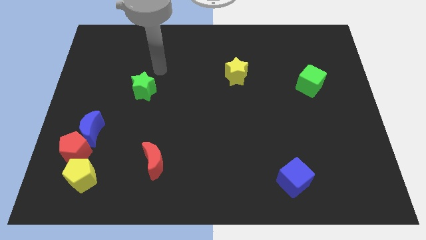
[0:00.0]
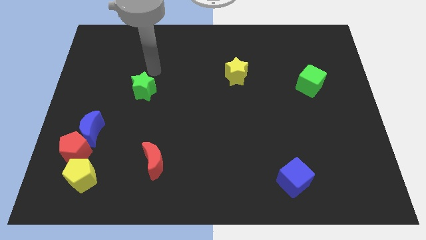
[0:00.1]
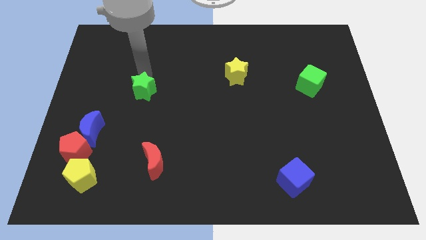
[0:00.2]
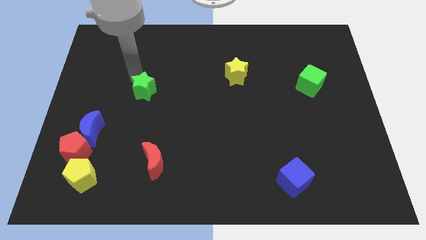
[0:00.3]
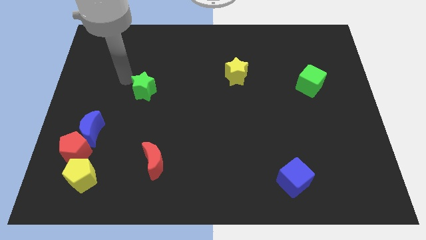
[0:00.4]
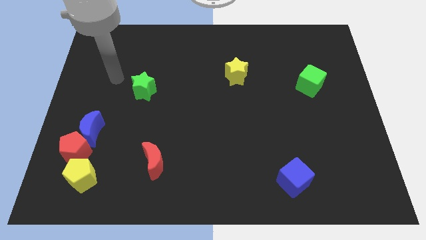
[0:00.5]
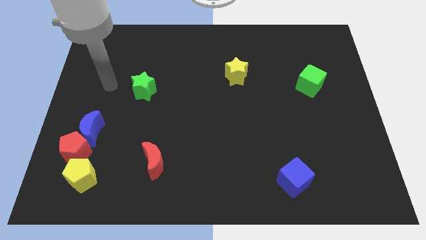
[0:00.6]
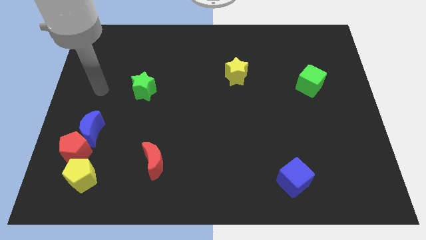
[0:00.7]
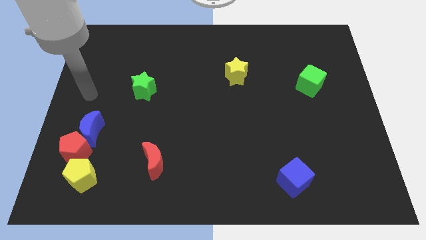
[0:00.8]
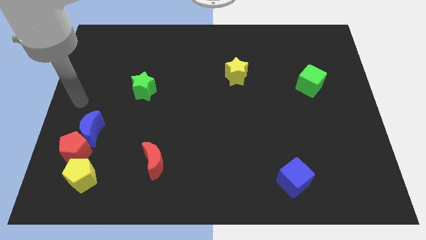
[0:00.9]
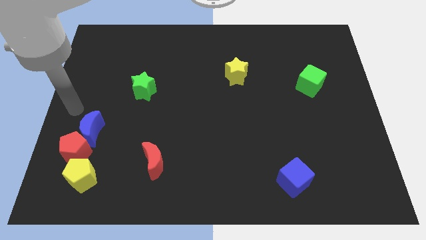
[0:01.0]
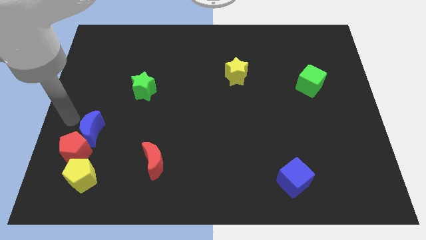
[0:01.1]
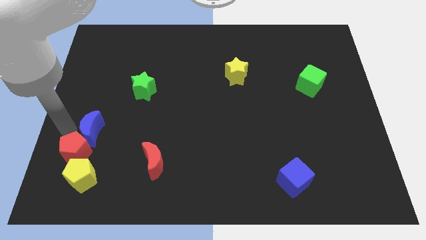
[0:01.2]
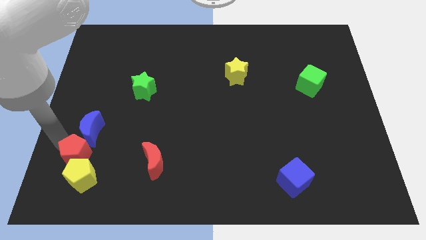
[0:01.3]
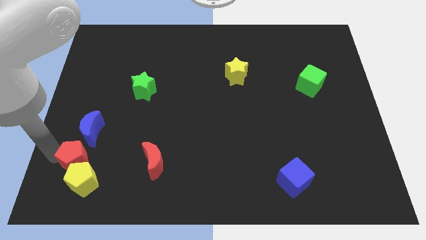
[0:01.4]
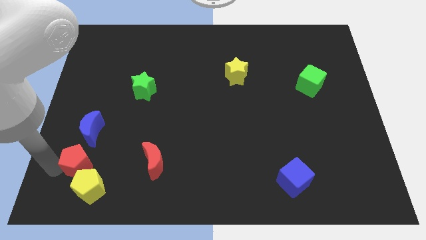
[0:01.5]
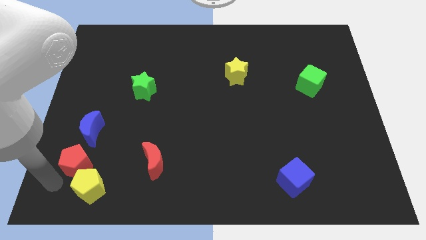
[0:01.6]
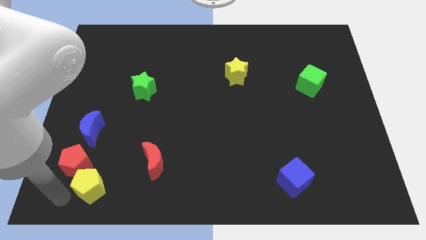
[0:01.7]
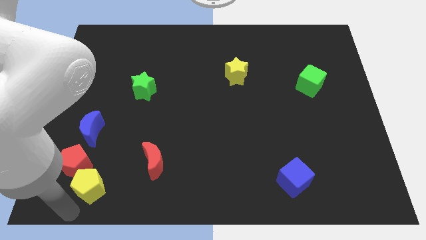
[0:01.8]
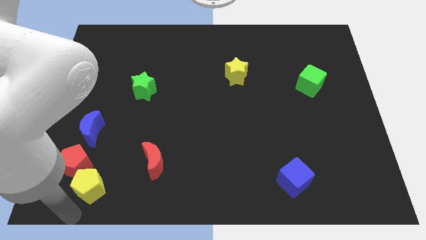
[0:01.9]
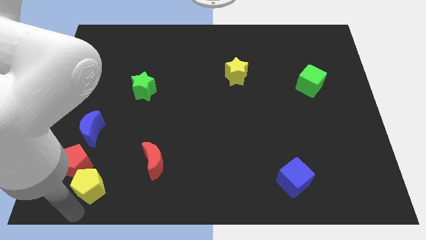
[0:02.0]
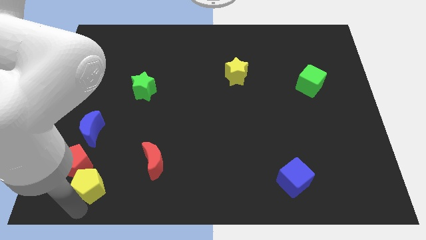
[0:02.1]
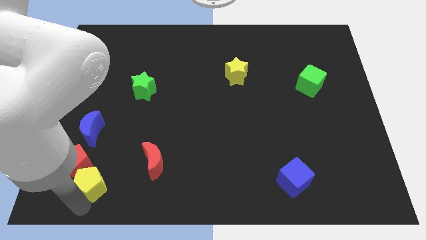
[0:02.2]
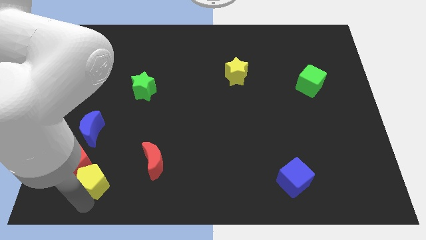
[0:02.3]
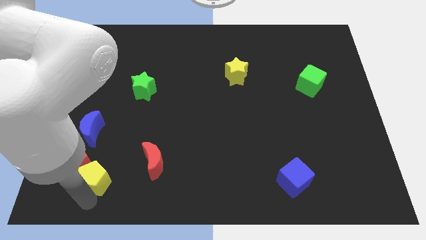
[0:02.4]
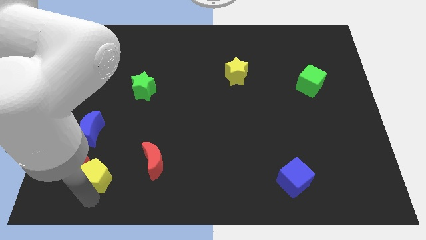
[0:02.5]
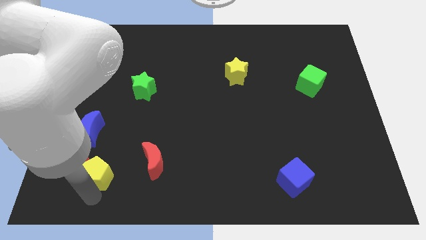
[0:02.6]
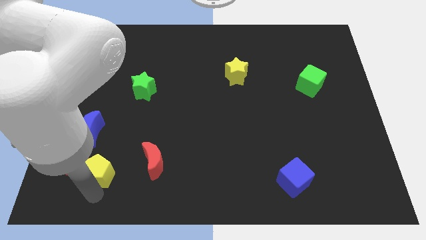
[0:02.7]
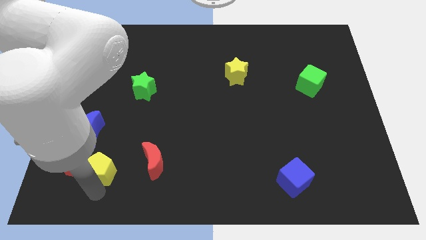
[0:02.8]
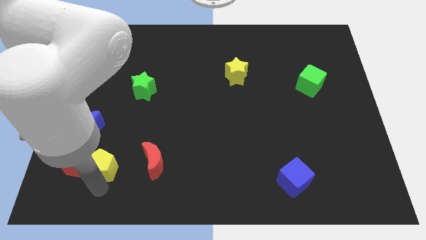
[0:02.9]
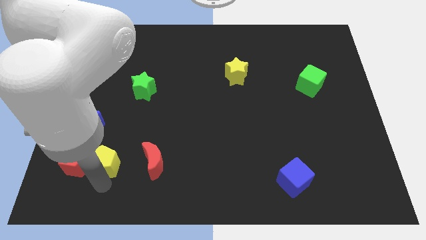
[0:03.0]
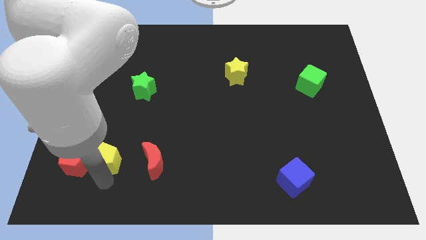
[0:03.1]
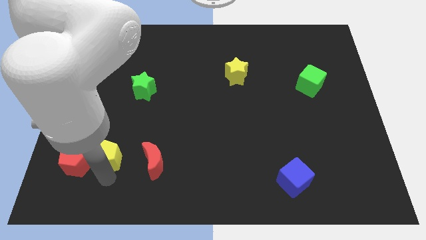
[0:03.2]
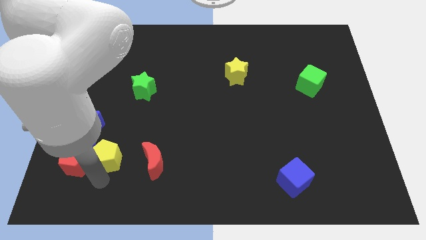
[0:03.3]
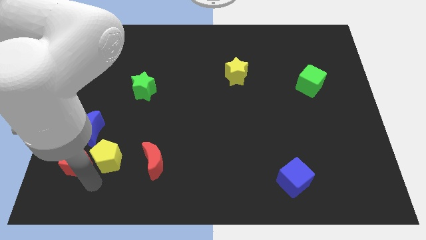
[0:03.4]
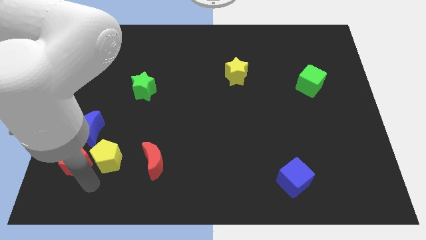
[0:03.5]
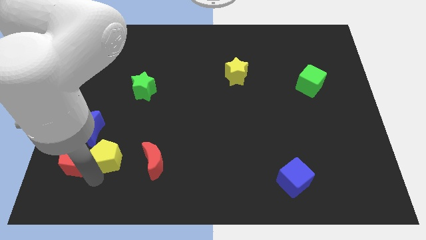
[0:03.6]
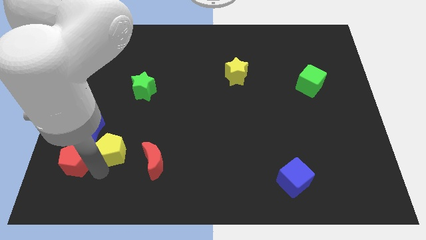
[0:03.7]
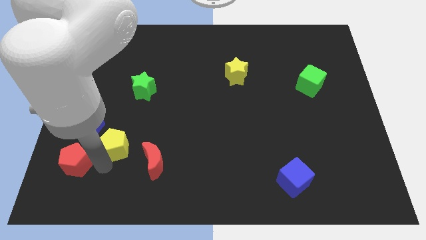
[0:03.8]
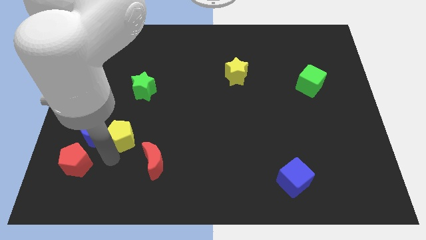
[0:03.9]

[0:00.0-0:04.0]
move the yellow pentagon slightly upwards

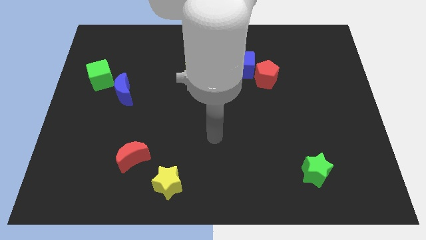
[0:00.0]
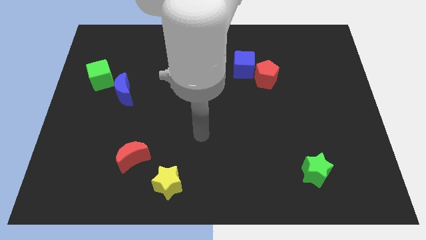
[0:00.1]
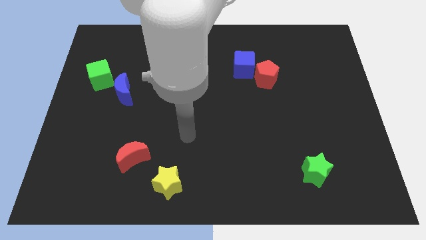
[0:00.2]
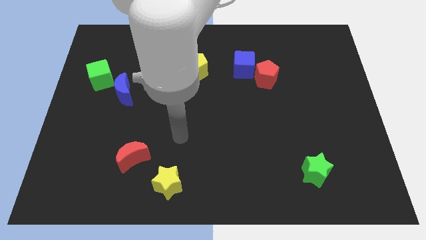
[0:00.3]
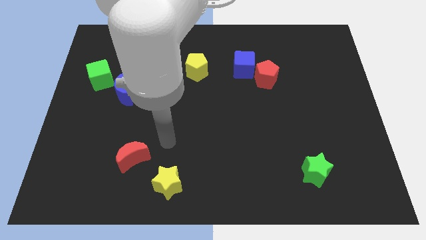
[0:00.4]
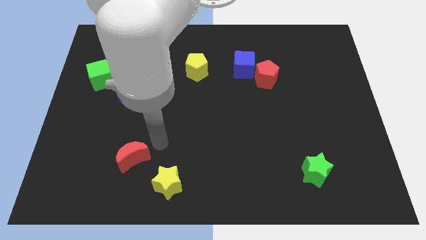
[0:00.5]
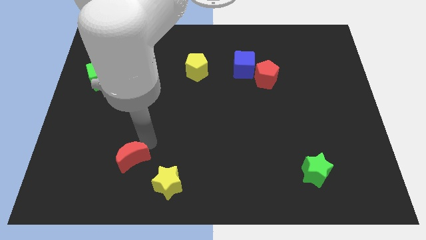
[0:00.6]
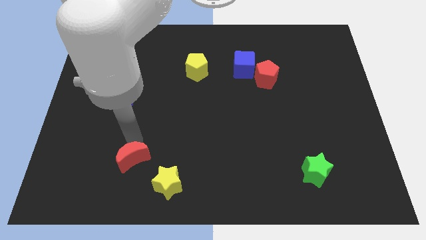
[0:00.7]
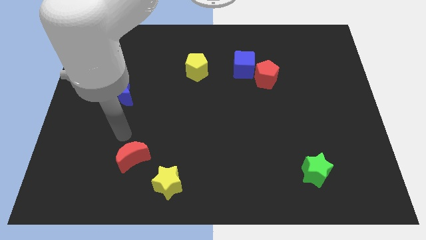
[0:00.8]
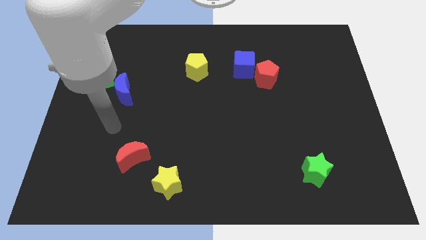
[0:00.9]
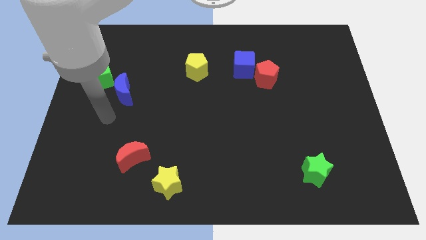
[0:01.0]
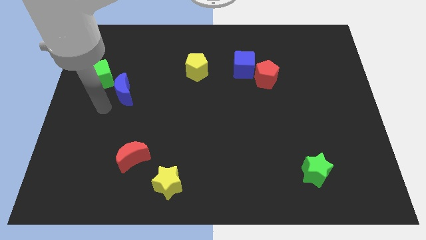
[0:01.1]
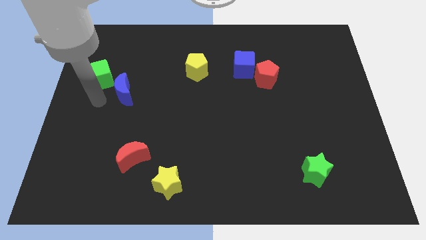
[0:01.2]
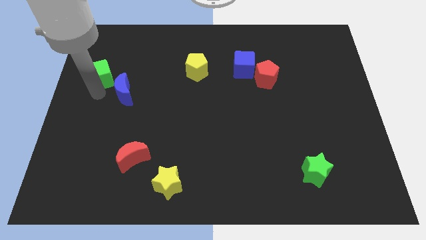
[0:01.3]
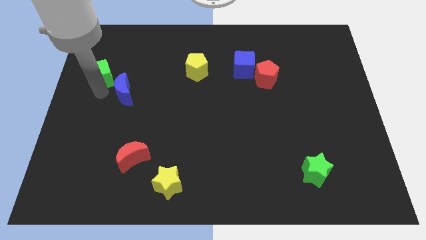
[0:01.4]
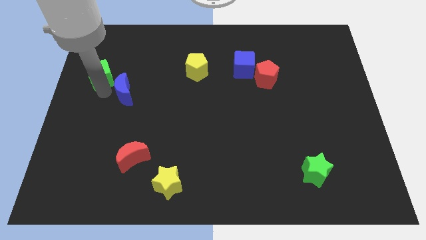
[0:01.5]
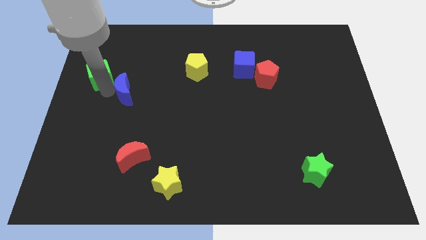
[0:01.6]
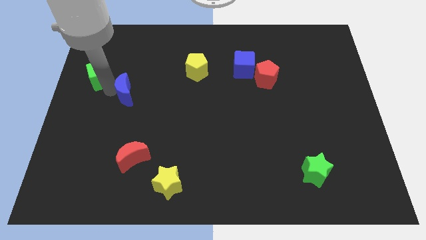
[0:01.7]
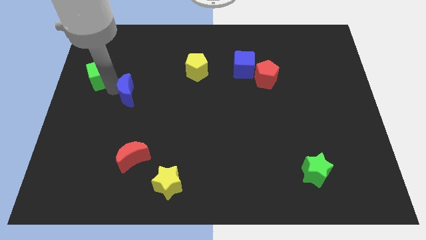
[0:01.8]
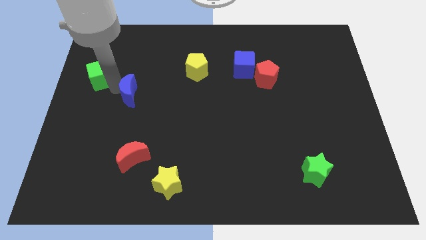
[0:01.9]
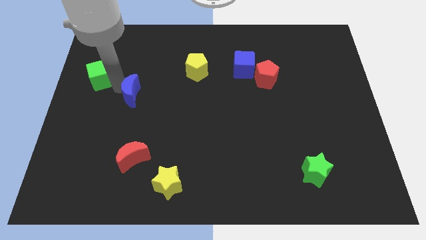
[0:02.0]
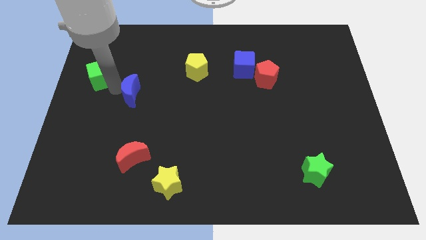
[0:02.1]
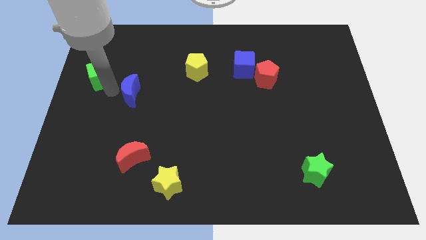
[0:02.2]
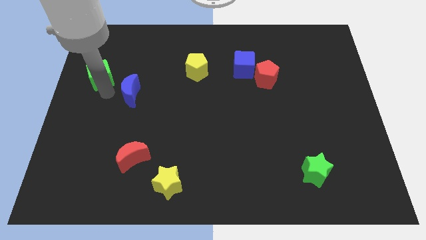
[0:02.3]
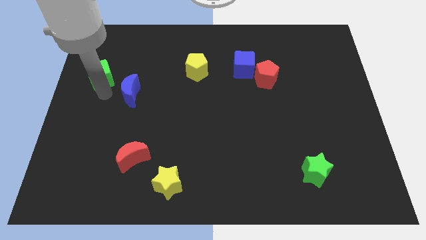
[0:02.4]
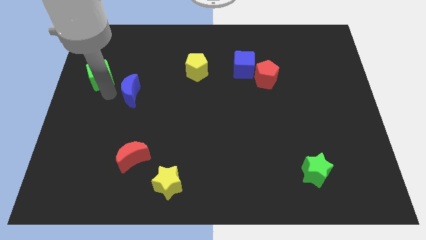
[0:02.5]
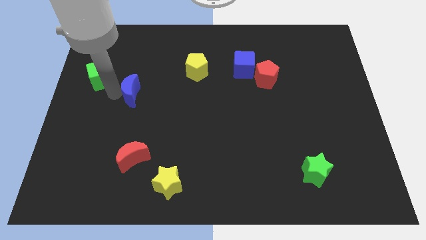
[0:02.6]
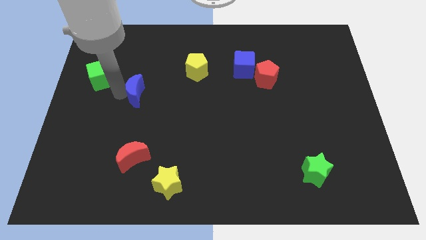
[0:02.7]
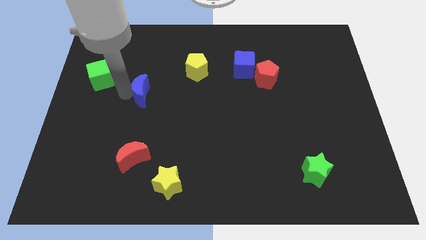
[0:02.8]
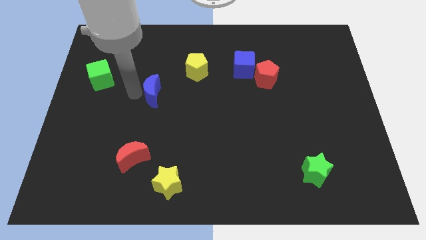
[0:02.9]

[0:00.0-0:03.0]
move the blue moon a little to the right

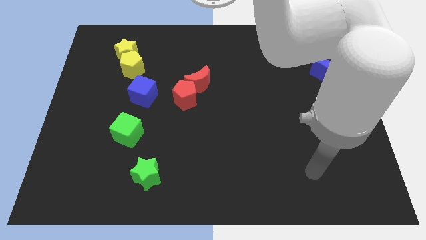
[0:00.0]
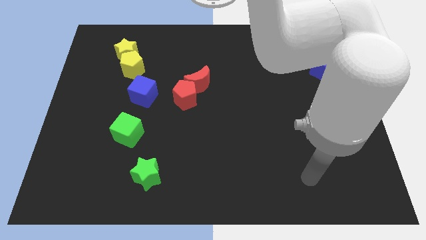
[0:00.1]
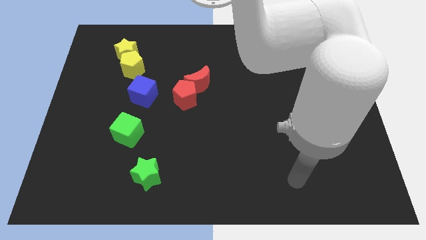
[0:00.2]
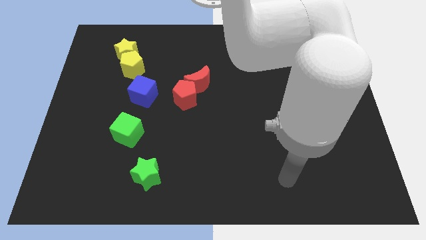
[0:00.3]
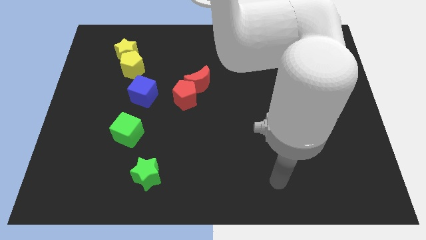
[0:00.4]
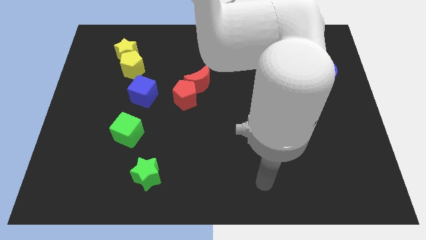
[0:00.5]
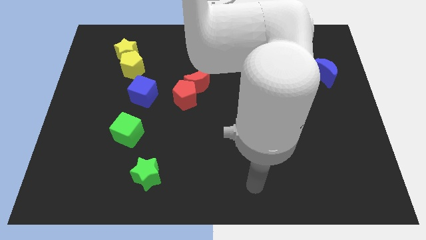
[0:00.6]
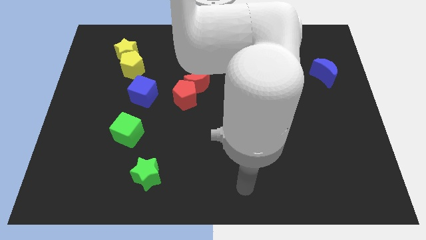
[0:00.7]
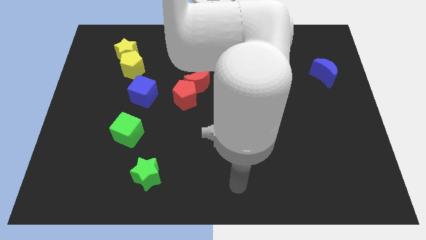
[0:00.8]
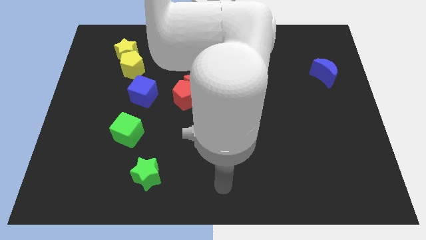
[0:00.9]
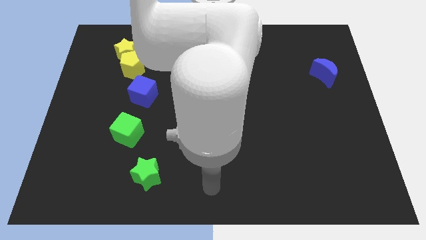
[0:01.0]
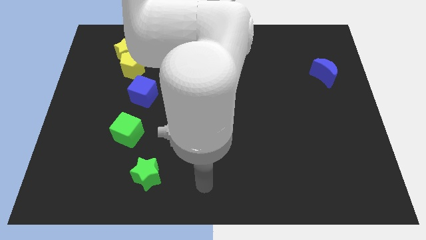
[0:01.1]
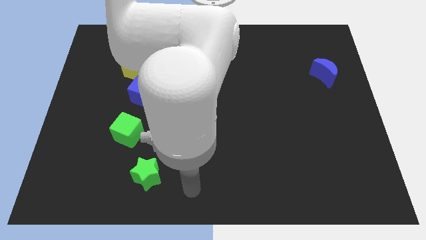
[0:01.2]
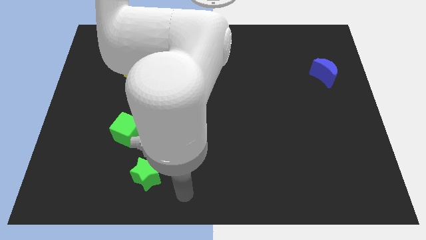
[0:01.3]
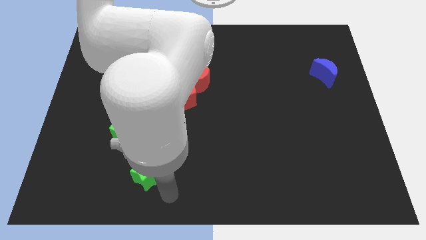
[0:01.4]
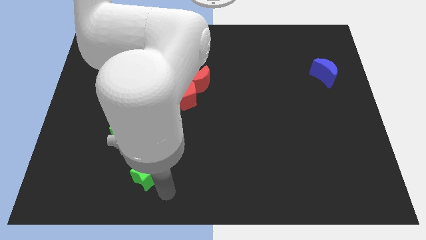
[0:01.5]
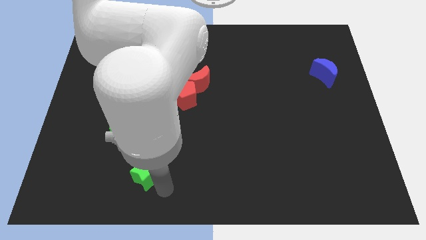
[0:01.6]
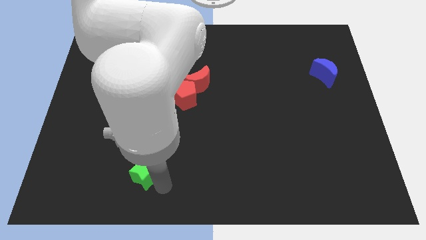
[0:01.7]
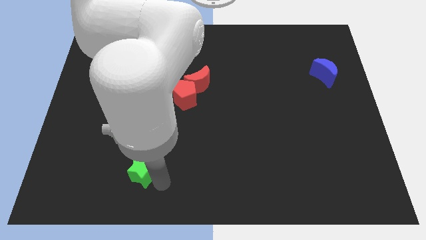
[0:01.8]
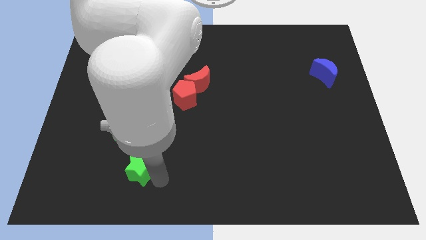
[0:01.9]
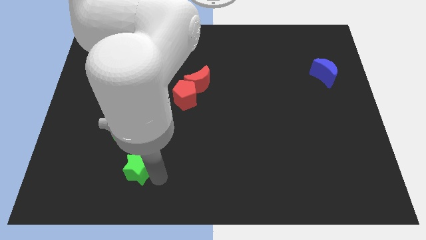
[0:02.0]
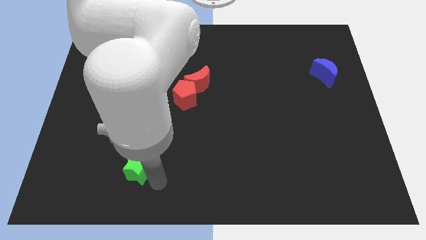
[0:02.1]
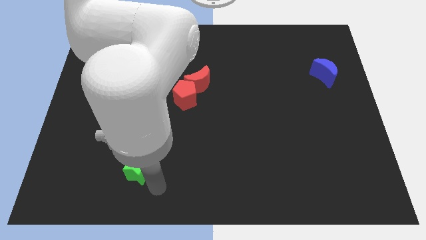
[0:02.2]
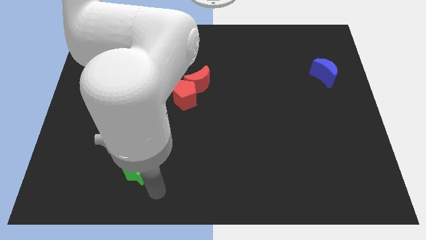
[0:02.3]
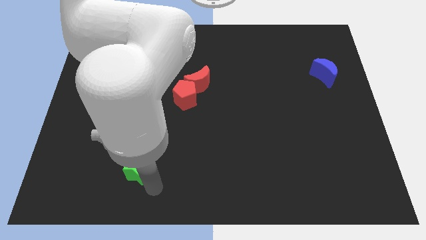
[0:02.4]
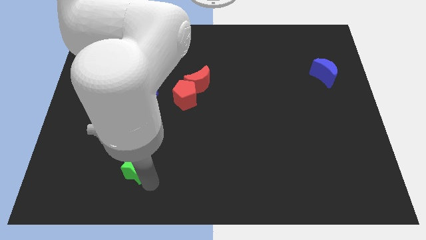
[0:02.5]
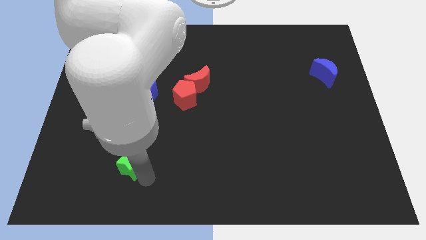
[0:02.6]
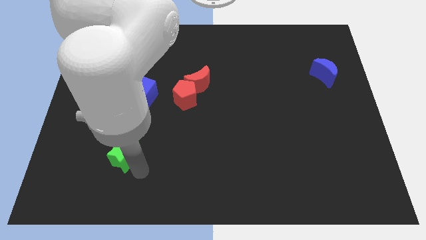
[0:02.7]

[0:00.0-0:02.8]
slide the green star a little upwards and left
